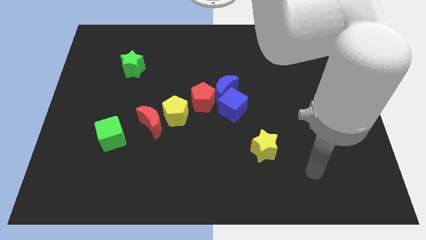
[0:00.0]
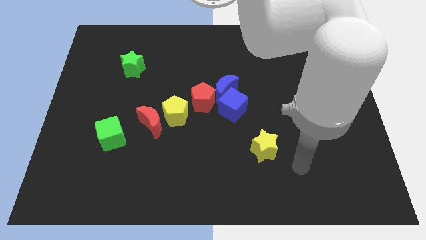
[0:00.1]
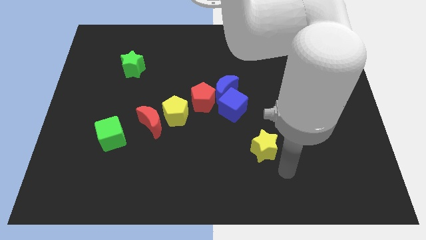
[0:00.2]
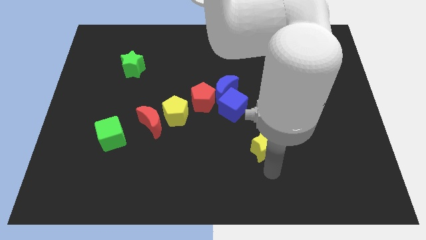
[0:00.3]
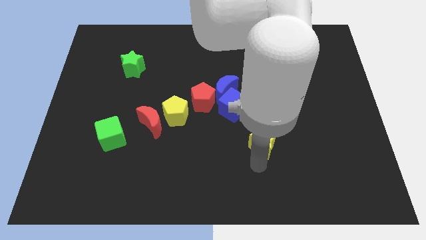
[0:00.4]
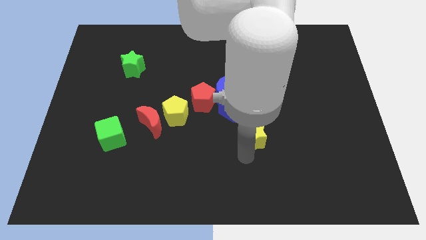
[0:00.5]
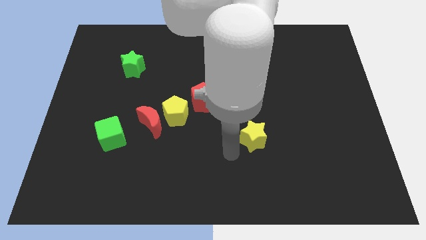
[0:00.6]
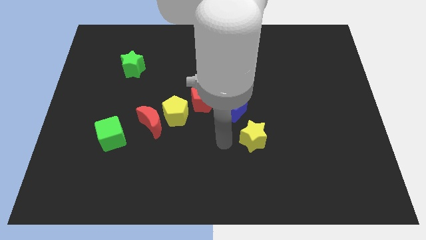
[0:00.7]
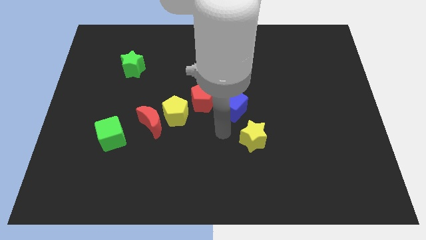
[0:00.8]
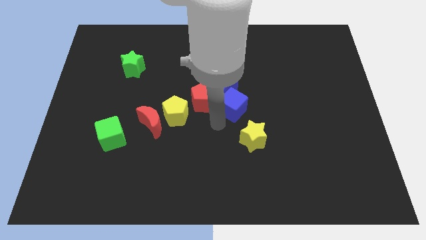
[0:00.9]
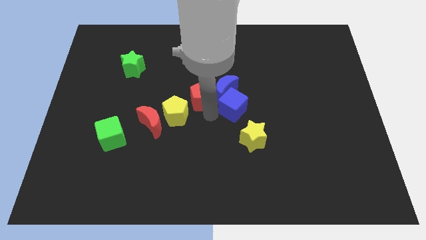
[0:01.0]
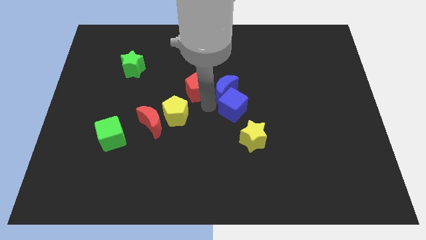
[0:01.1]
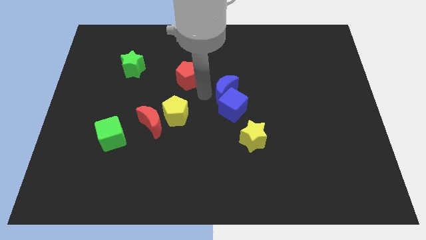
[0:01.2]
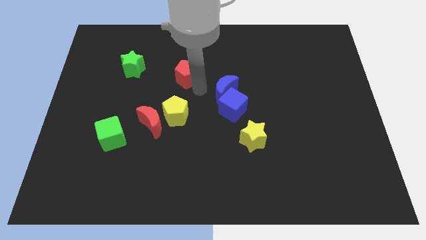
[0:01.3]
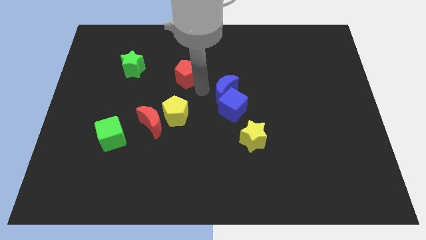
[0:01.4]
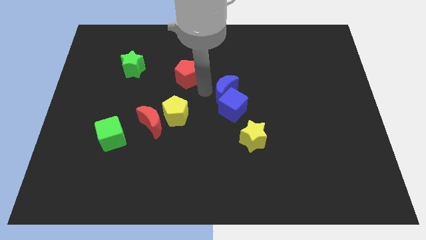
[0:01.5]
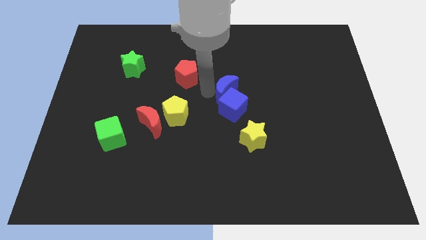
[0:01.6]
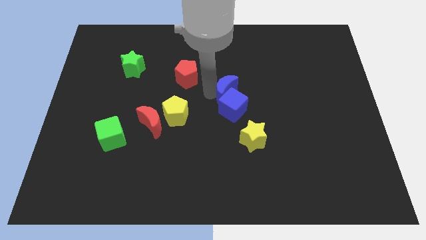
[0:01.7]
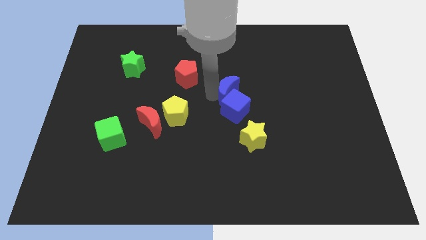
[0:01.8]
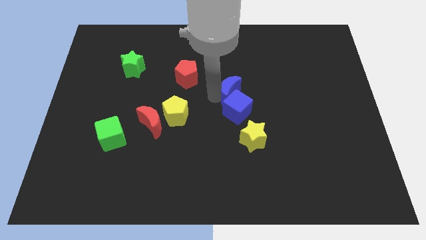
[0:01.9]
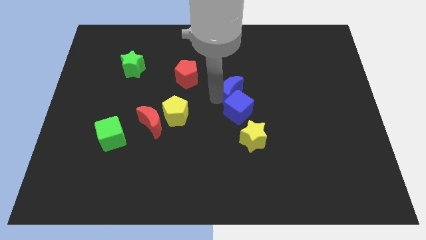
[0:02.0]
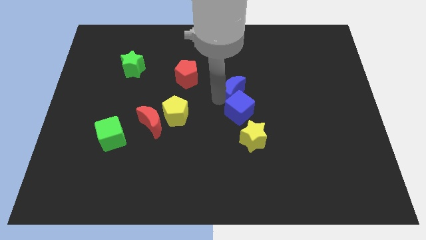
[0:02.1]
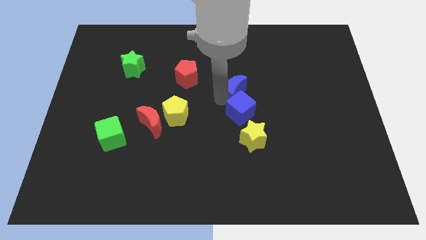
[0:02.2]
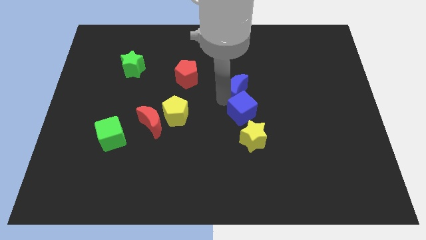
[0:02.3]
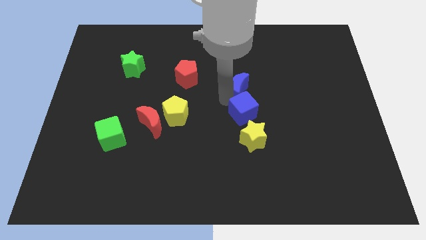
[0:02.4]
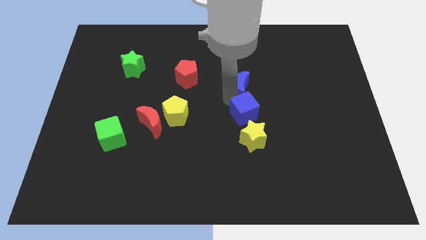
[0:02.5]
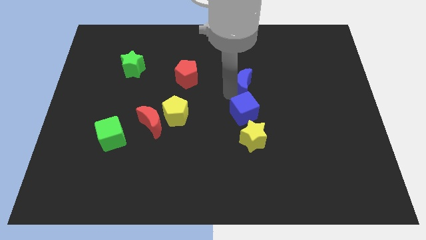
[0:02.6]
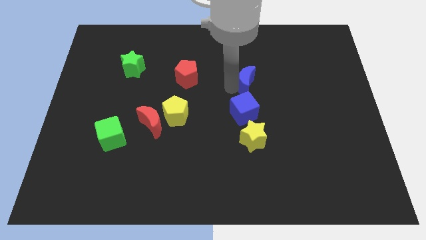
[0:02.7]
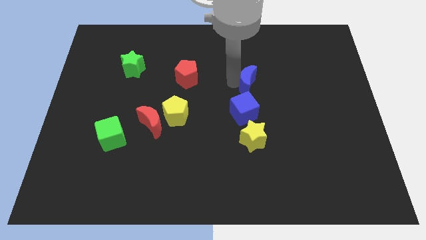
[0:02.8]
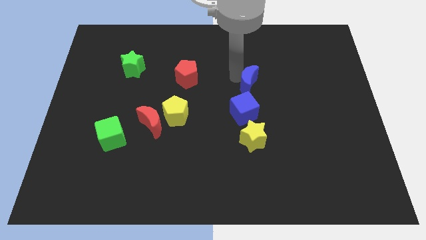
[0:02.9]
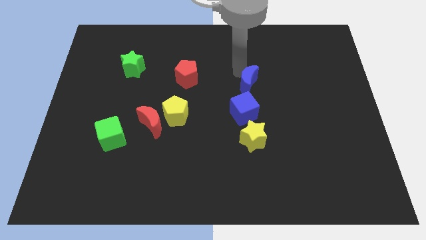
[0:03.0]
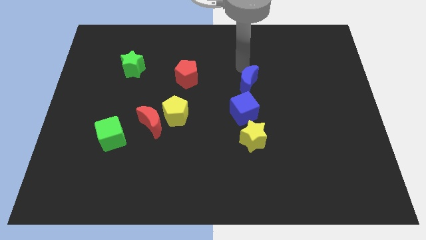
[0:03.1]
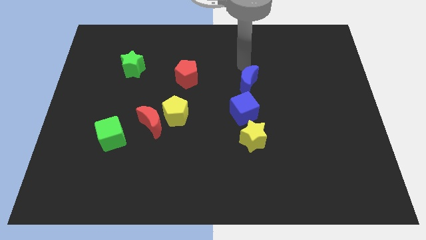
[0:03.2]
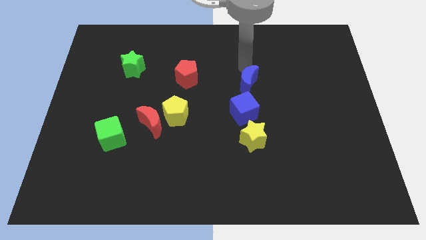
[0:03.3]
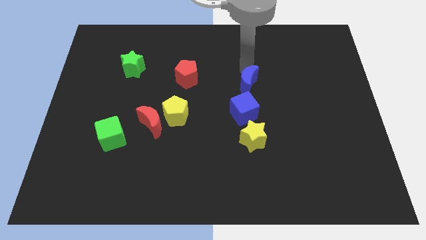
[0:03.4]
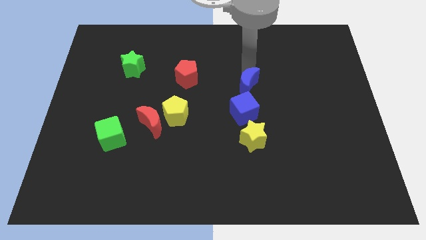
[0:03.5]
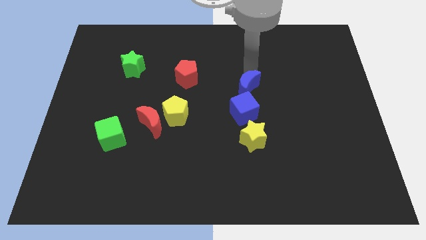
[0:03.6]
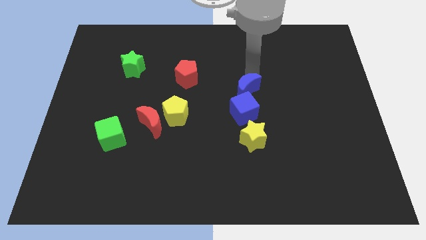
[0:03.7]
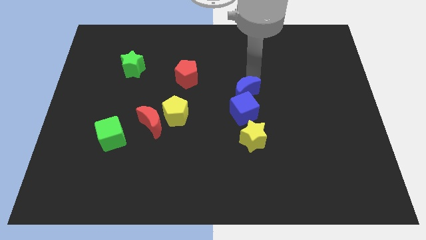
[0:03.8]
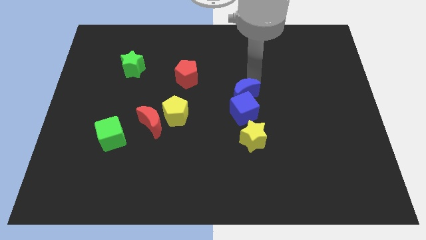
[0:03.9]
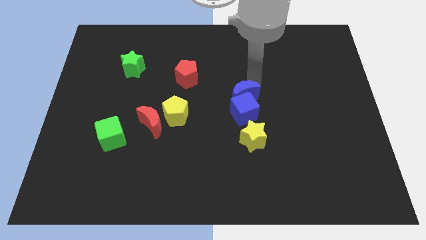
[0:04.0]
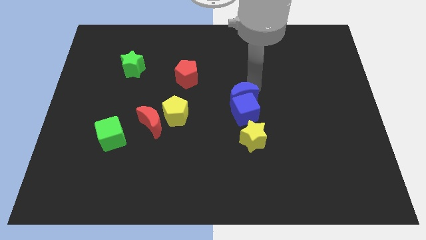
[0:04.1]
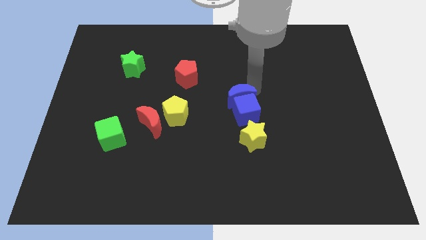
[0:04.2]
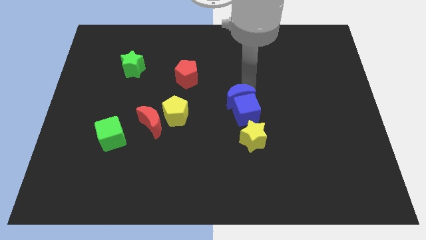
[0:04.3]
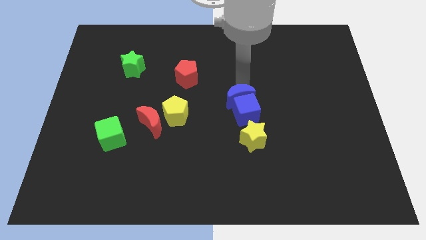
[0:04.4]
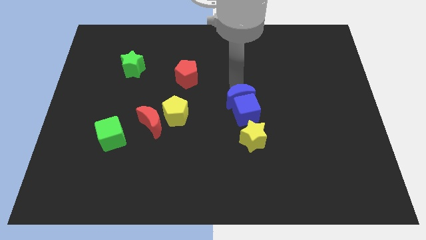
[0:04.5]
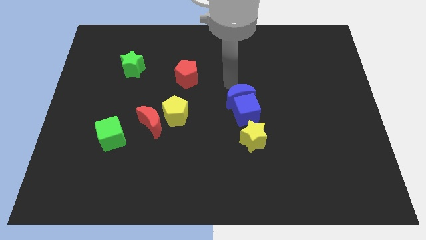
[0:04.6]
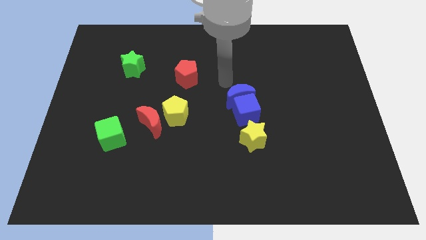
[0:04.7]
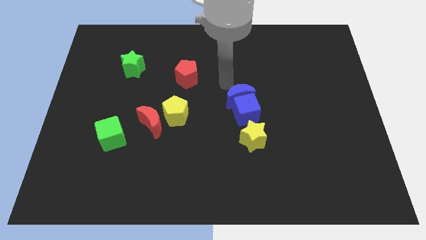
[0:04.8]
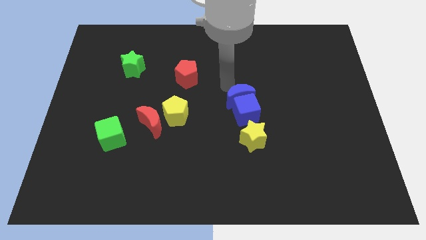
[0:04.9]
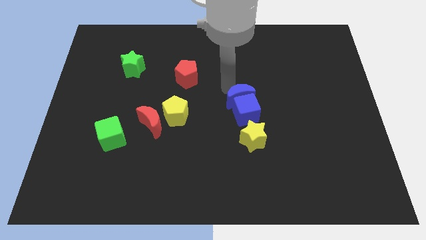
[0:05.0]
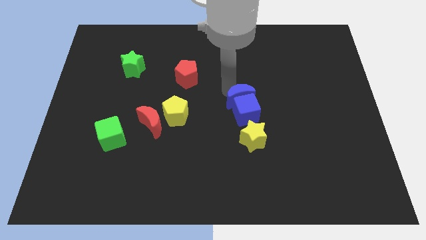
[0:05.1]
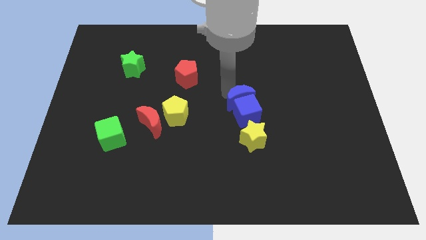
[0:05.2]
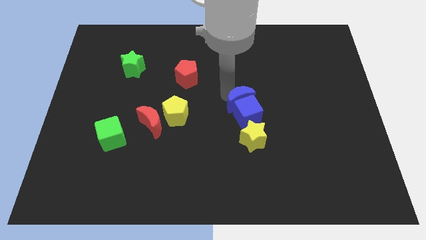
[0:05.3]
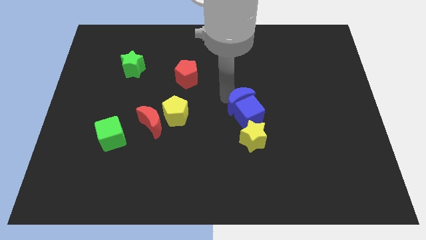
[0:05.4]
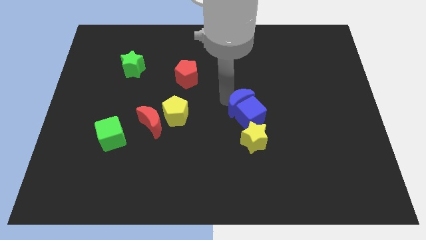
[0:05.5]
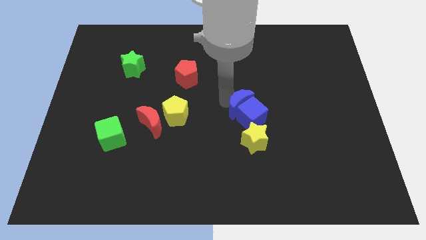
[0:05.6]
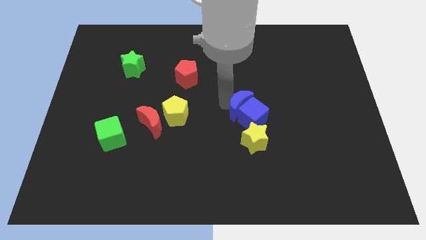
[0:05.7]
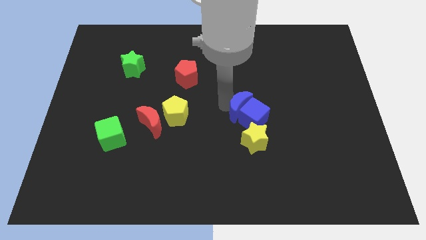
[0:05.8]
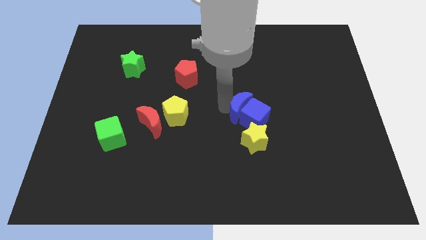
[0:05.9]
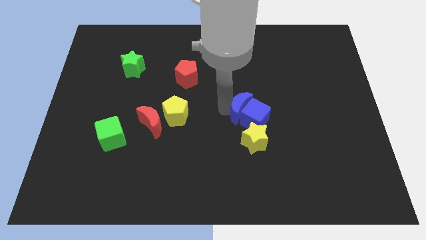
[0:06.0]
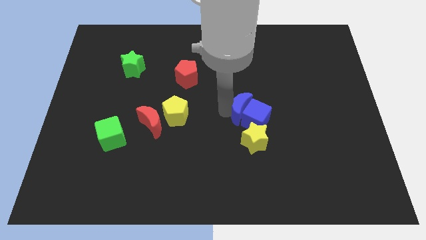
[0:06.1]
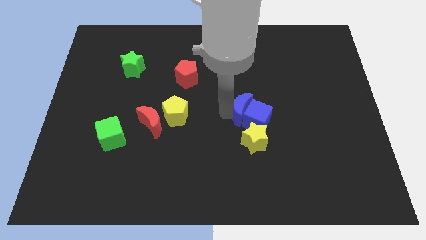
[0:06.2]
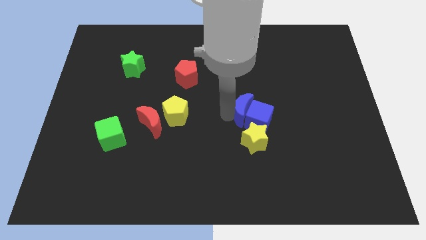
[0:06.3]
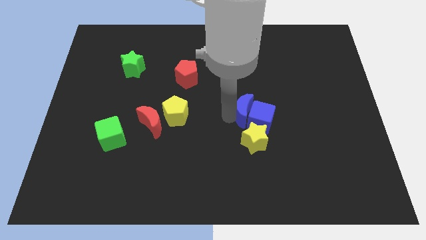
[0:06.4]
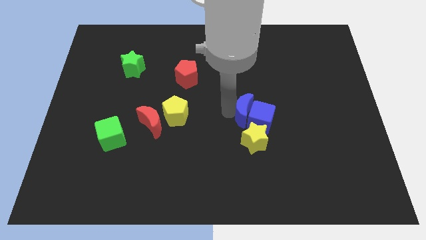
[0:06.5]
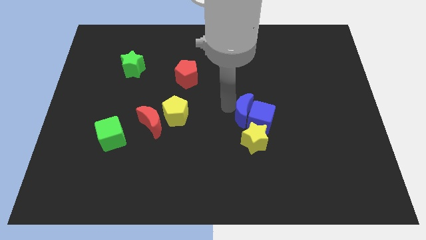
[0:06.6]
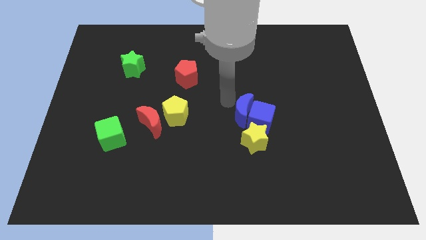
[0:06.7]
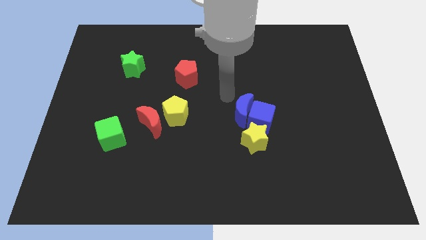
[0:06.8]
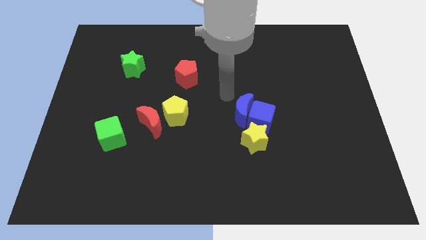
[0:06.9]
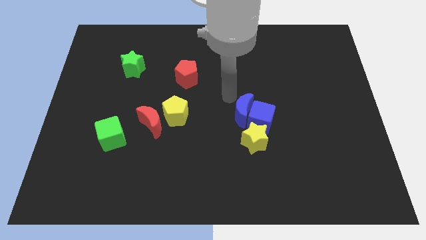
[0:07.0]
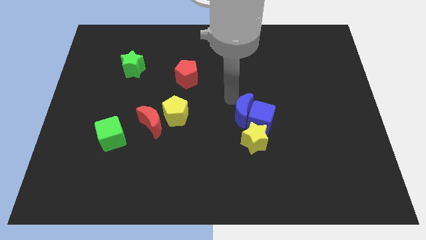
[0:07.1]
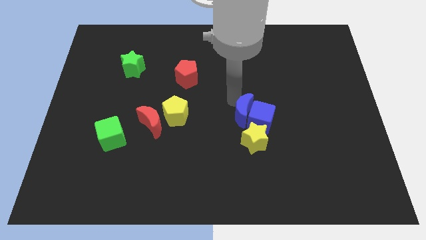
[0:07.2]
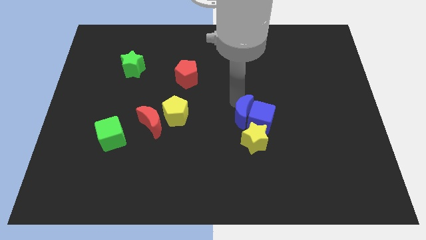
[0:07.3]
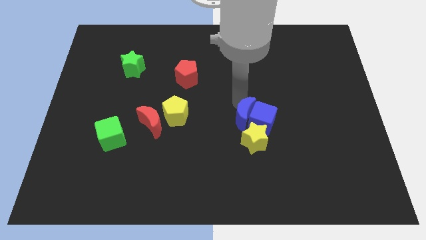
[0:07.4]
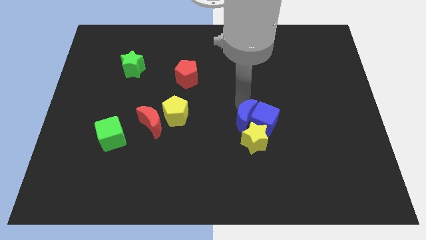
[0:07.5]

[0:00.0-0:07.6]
move the blue moon close to the yellow star

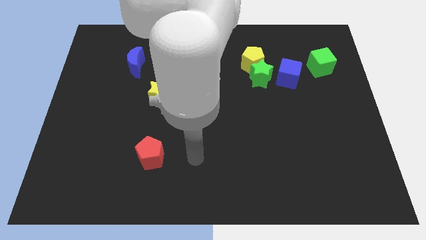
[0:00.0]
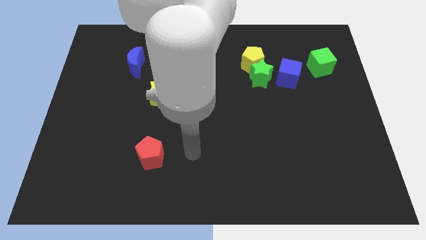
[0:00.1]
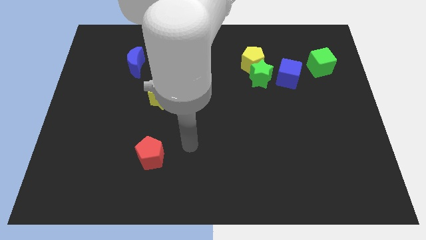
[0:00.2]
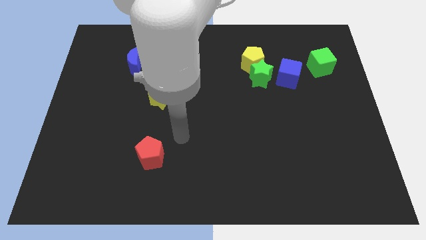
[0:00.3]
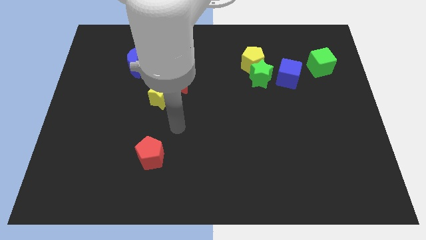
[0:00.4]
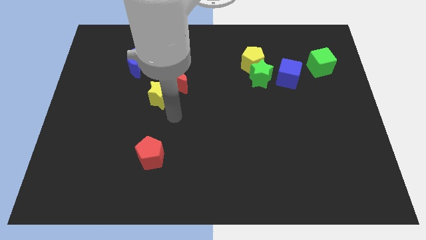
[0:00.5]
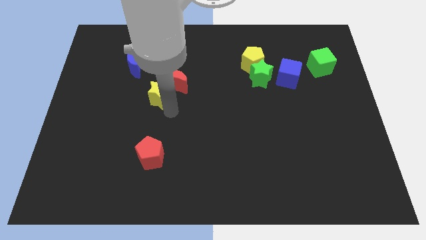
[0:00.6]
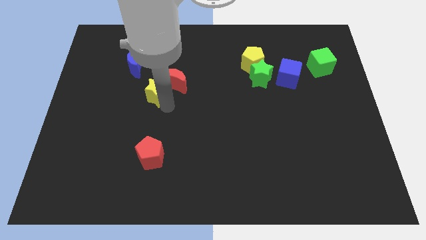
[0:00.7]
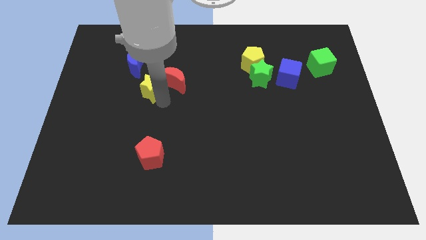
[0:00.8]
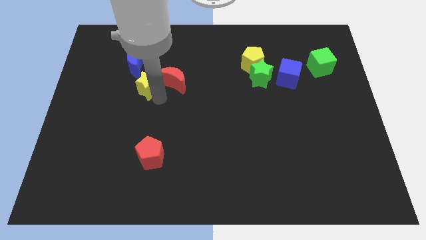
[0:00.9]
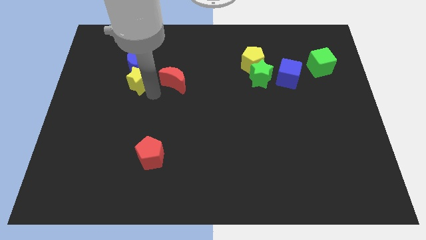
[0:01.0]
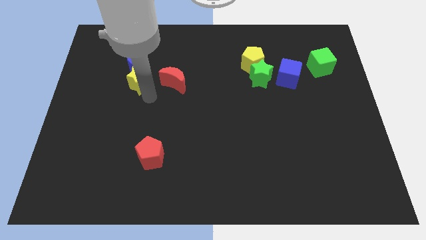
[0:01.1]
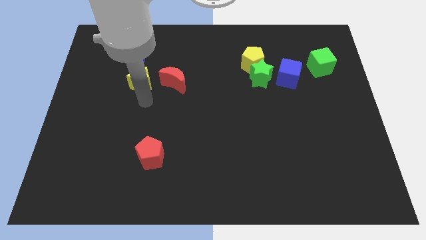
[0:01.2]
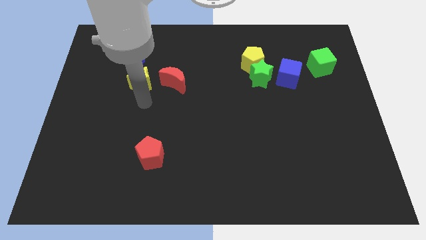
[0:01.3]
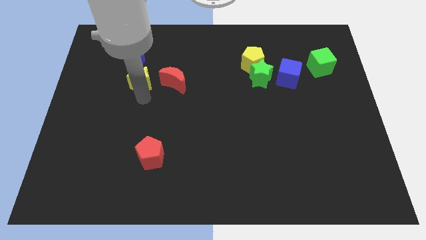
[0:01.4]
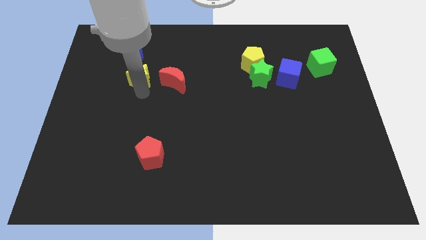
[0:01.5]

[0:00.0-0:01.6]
move the yellow star close to the blue moon
